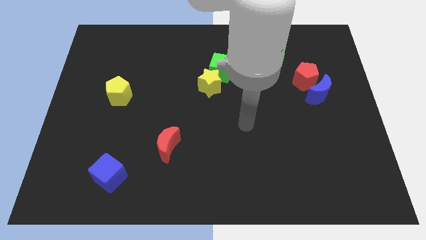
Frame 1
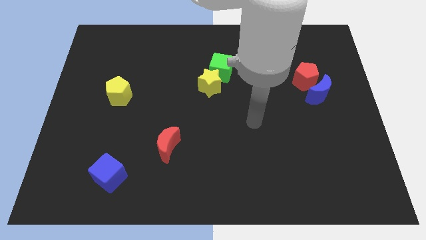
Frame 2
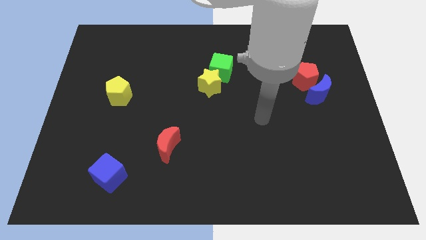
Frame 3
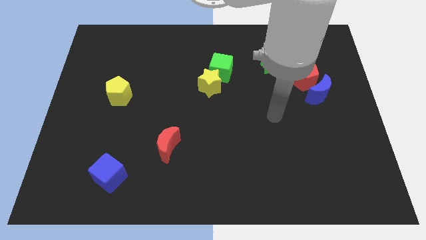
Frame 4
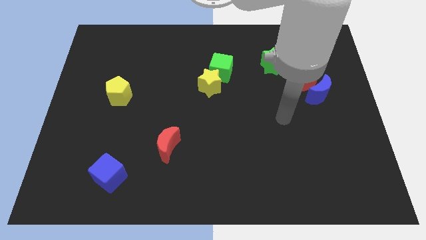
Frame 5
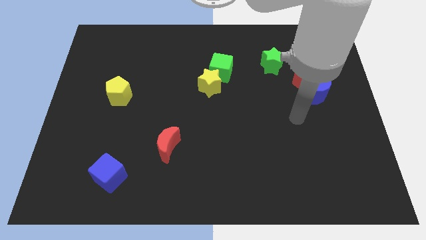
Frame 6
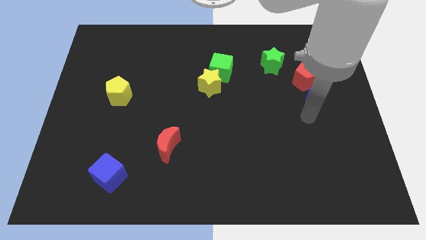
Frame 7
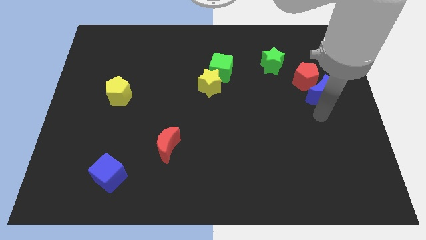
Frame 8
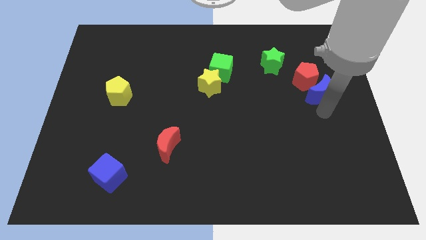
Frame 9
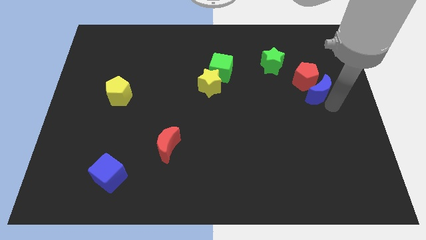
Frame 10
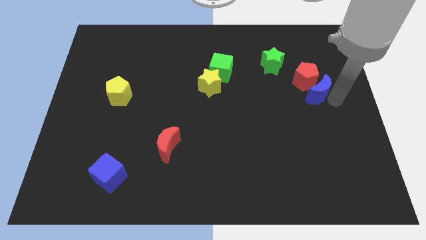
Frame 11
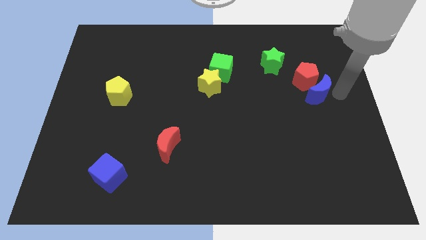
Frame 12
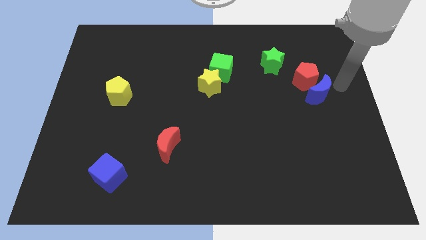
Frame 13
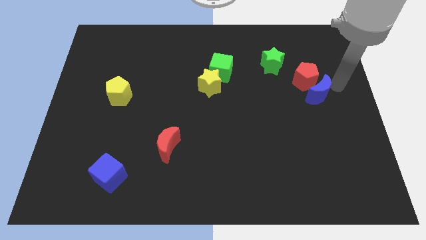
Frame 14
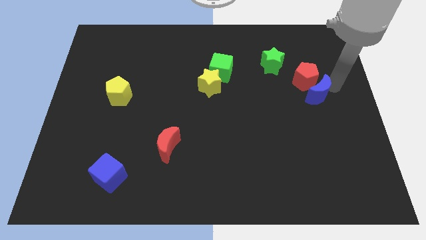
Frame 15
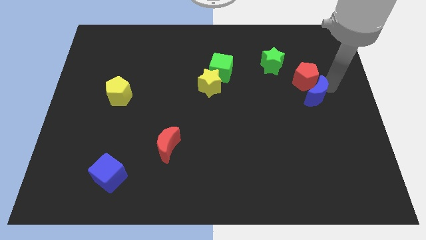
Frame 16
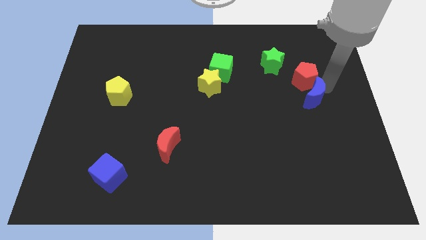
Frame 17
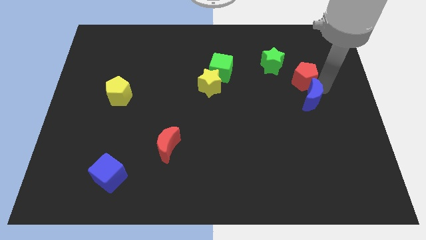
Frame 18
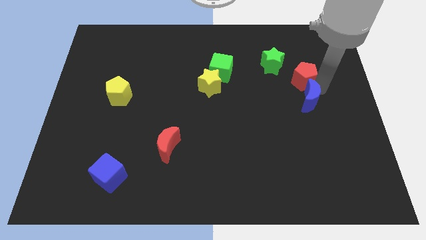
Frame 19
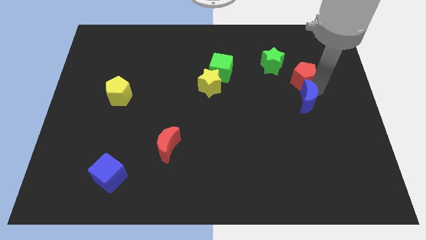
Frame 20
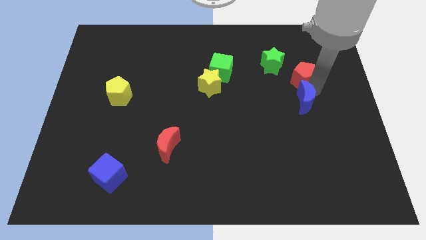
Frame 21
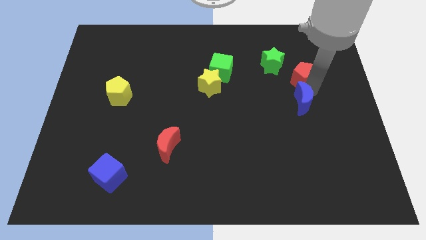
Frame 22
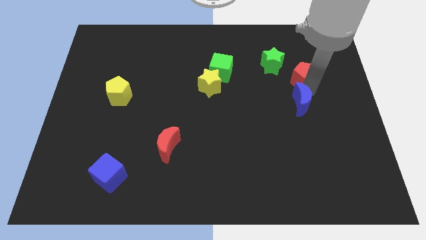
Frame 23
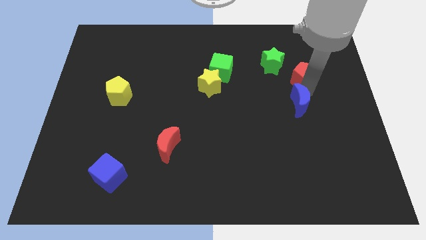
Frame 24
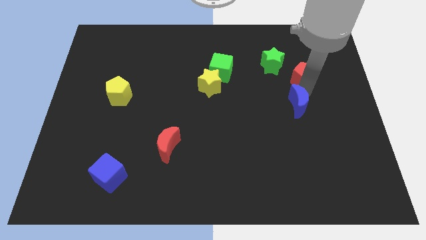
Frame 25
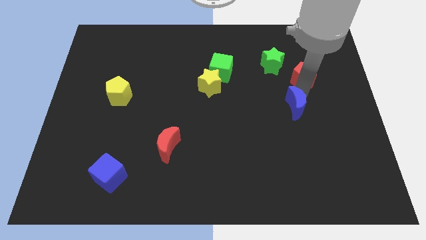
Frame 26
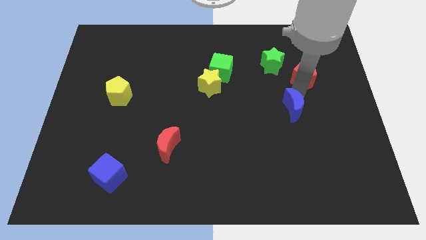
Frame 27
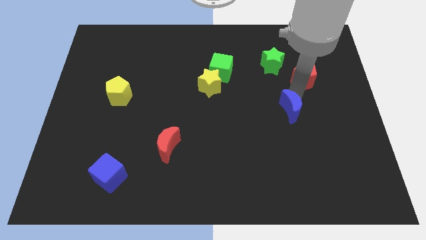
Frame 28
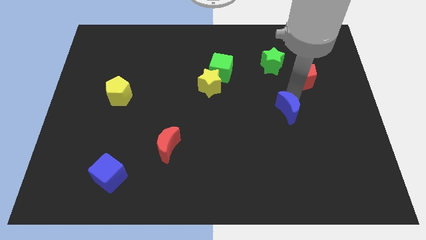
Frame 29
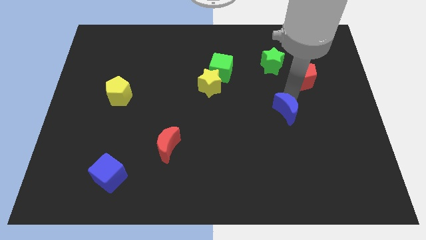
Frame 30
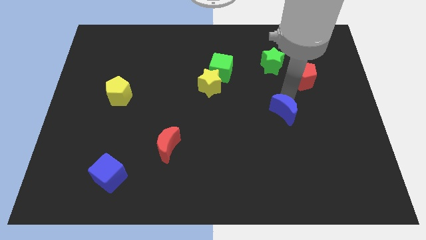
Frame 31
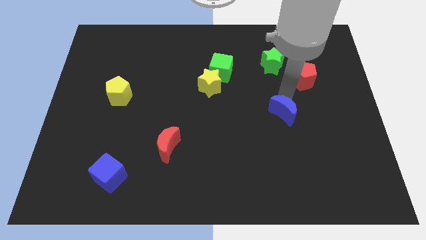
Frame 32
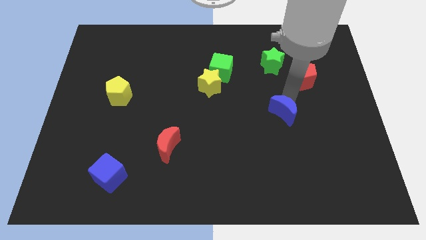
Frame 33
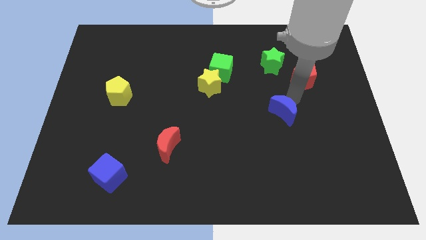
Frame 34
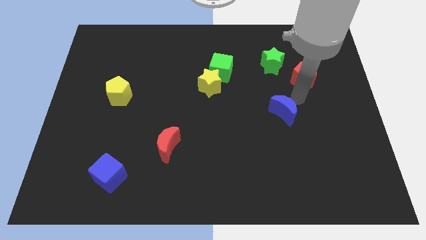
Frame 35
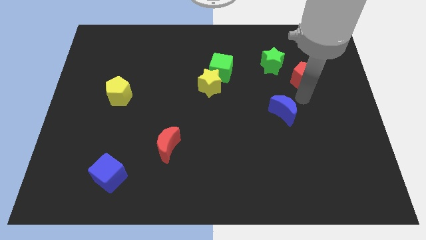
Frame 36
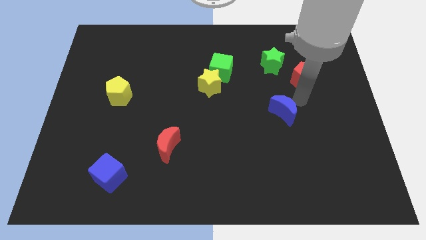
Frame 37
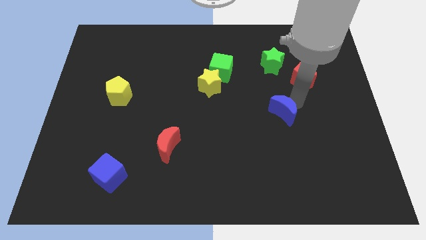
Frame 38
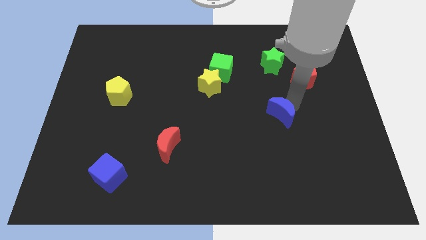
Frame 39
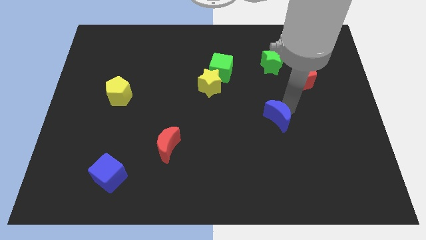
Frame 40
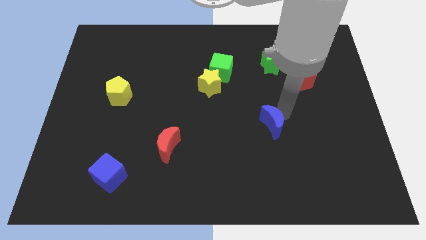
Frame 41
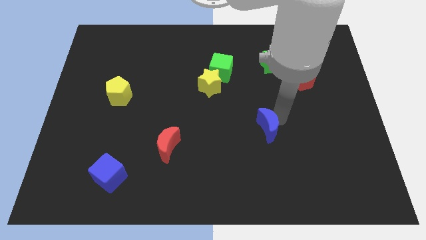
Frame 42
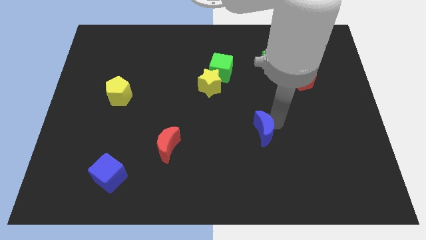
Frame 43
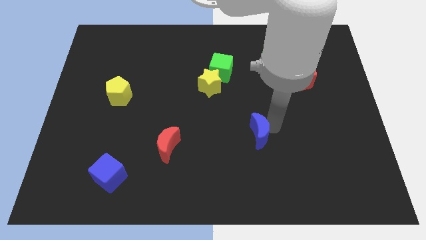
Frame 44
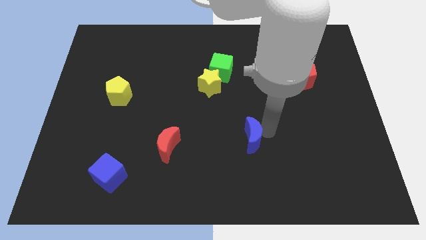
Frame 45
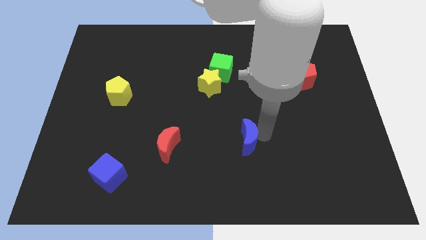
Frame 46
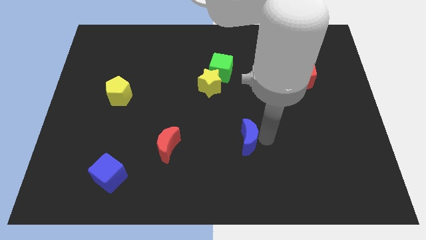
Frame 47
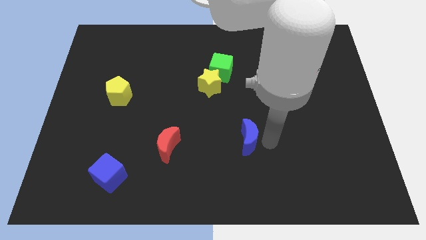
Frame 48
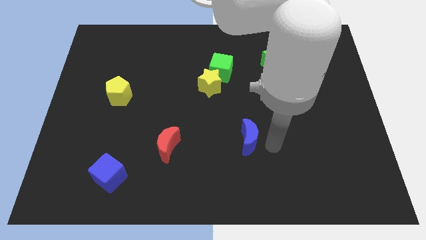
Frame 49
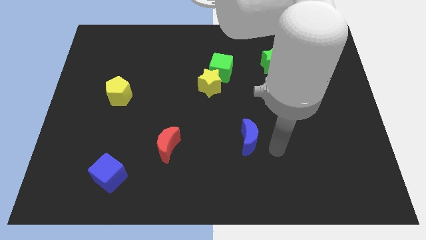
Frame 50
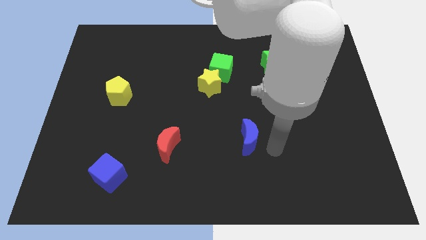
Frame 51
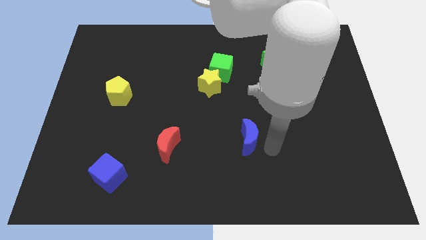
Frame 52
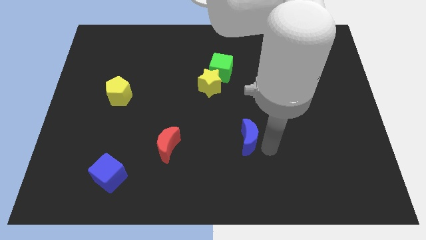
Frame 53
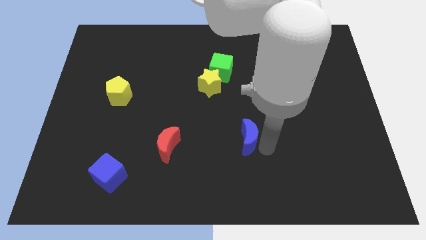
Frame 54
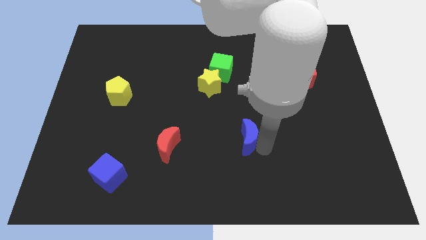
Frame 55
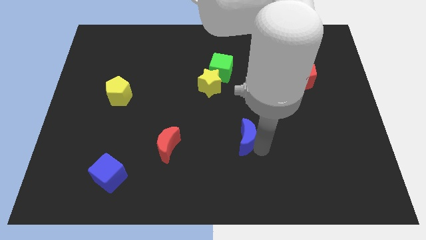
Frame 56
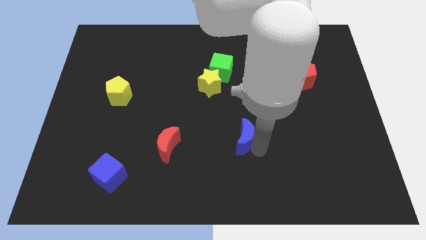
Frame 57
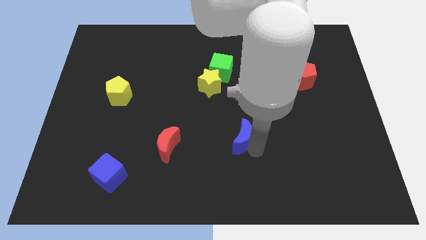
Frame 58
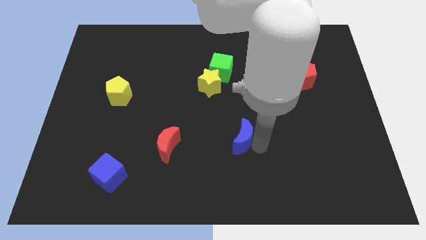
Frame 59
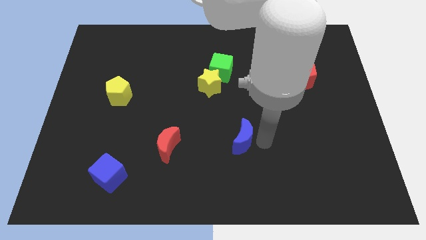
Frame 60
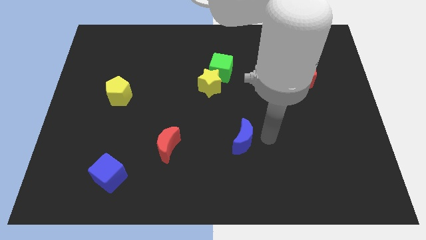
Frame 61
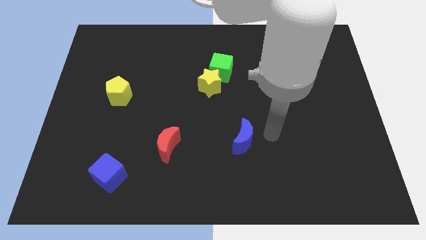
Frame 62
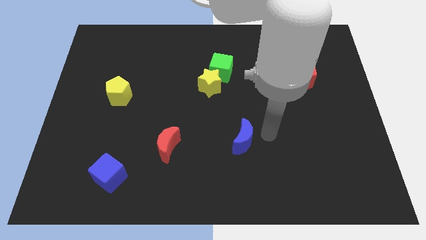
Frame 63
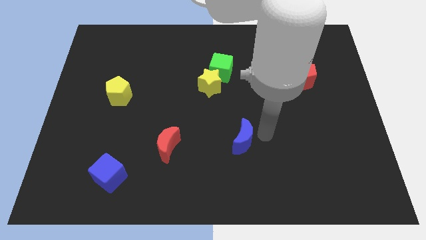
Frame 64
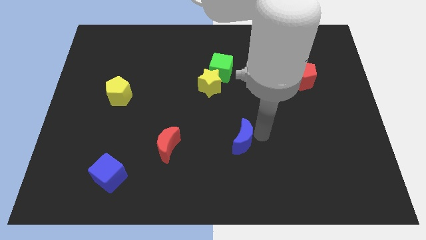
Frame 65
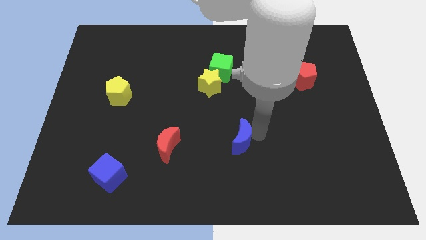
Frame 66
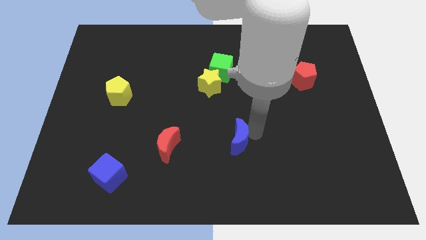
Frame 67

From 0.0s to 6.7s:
push the blue moon to the right of the red moon
